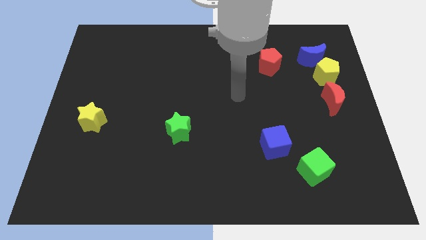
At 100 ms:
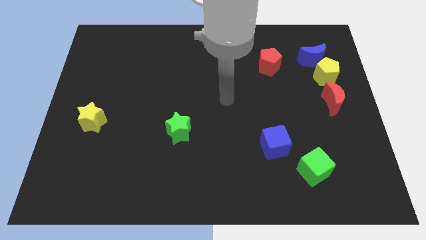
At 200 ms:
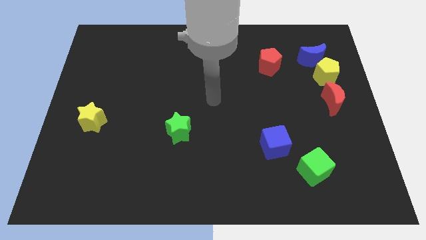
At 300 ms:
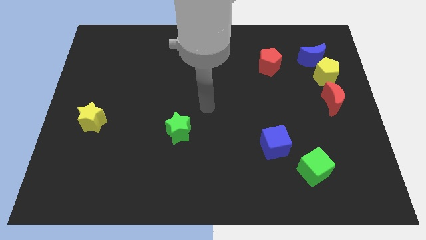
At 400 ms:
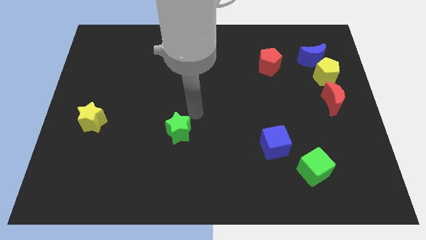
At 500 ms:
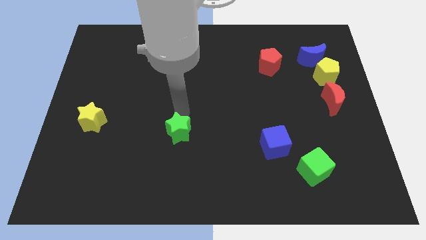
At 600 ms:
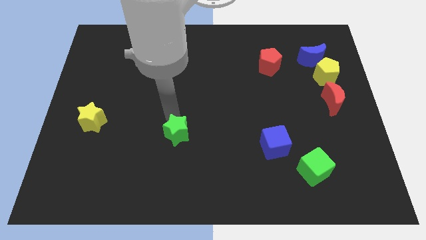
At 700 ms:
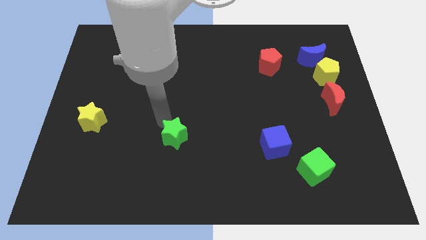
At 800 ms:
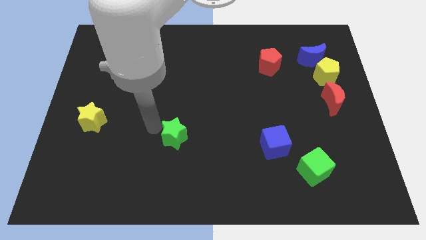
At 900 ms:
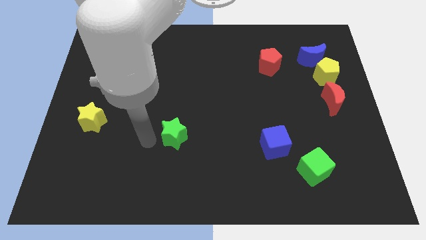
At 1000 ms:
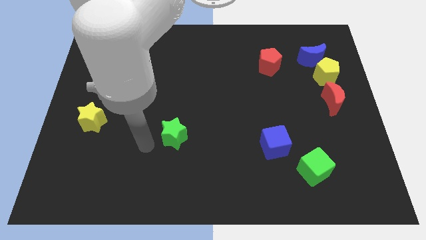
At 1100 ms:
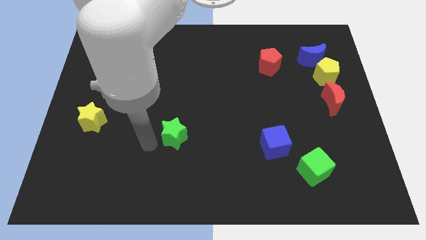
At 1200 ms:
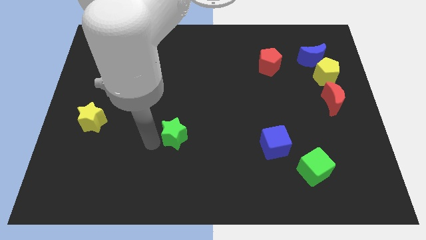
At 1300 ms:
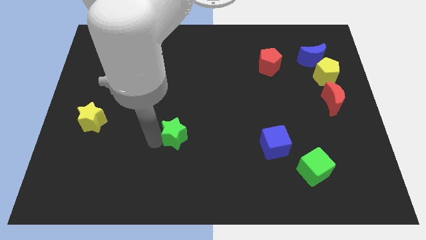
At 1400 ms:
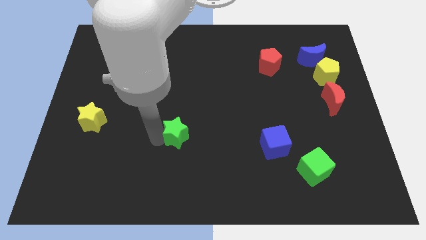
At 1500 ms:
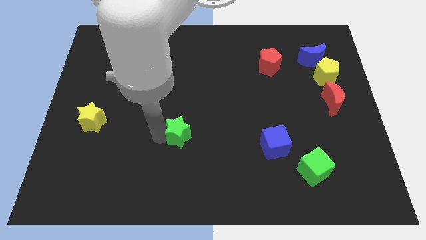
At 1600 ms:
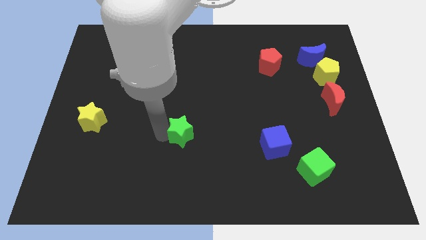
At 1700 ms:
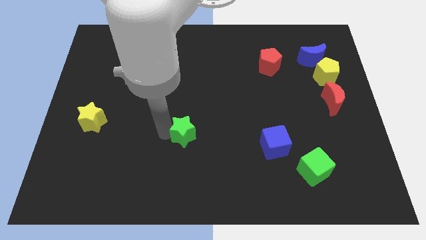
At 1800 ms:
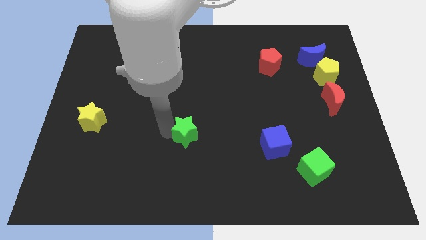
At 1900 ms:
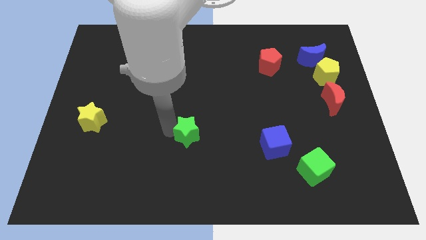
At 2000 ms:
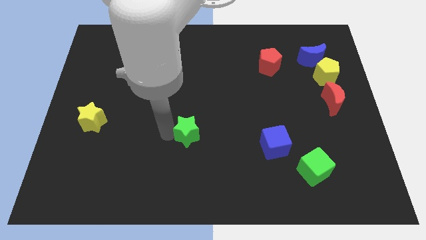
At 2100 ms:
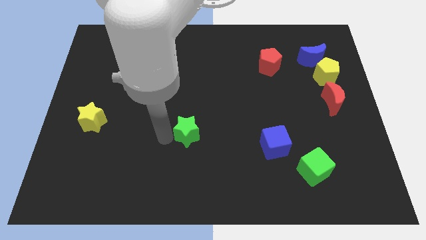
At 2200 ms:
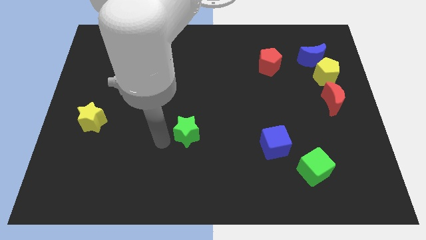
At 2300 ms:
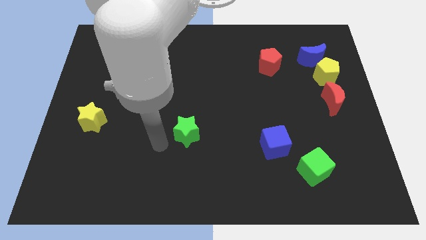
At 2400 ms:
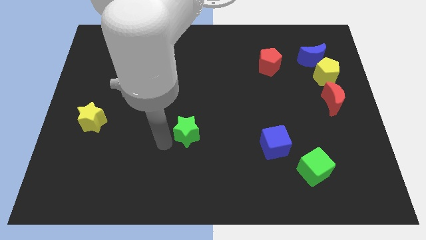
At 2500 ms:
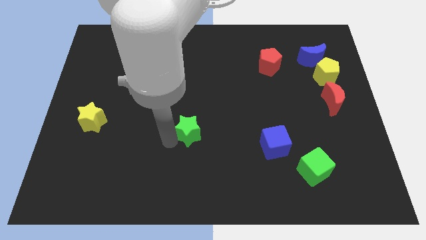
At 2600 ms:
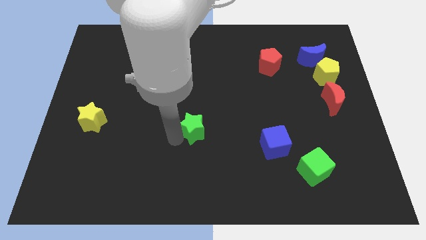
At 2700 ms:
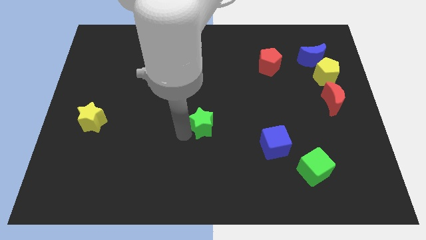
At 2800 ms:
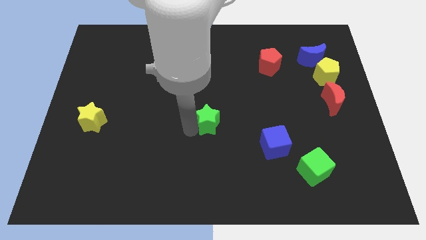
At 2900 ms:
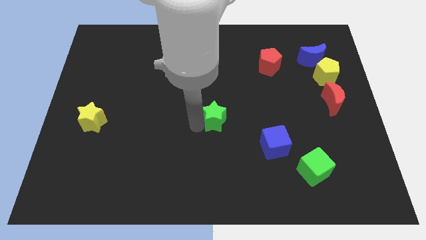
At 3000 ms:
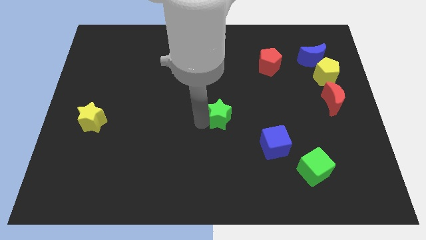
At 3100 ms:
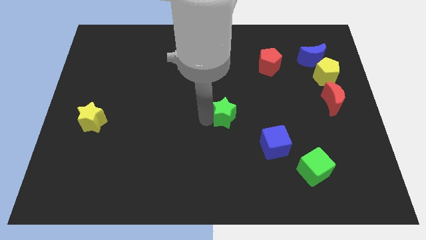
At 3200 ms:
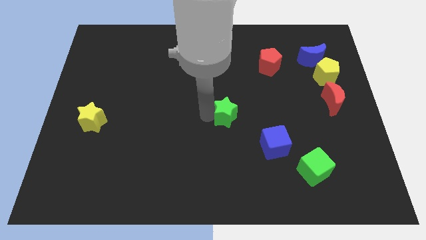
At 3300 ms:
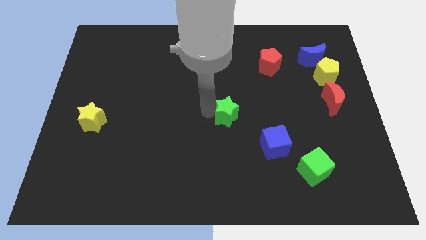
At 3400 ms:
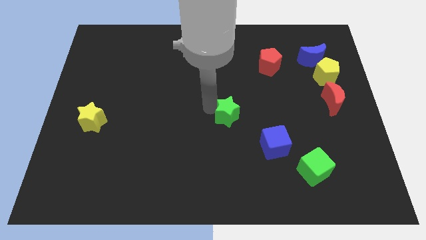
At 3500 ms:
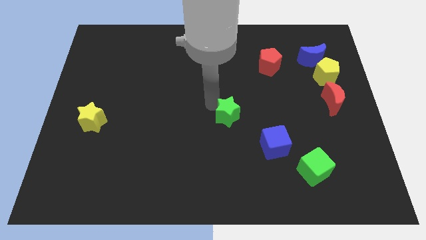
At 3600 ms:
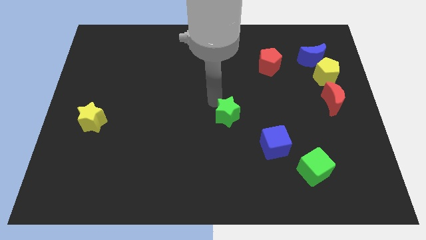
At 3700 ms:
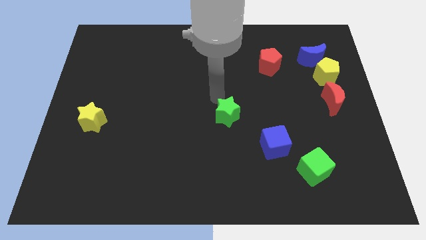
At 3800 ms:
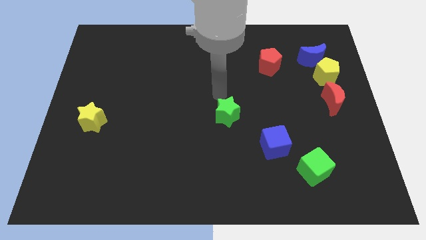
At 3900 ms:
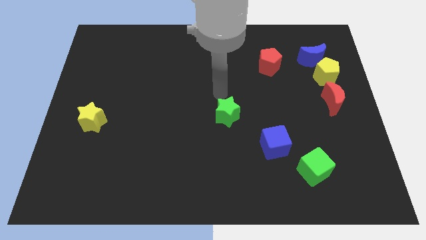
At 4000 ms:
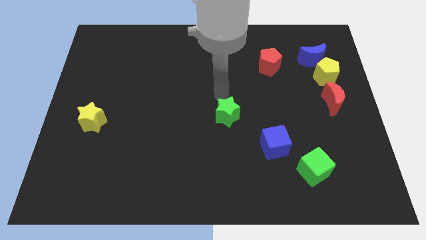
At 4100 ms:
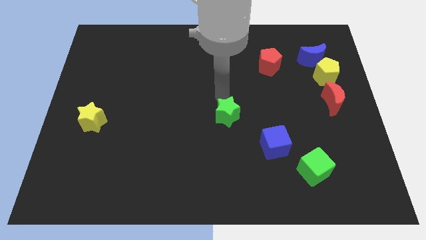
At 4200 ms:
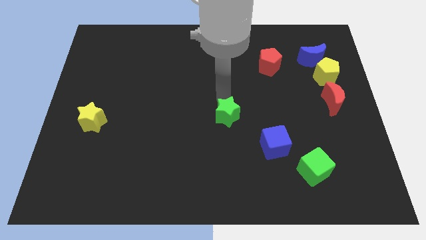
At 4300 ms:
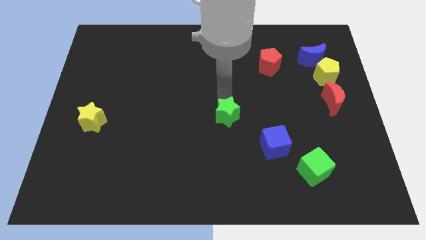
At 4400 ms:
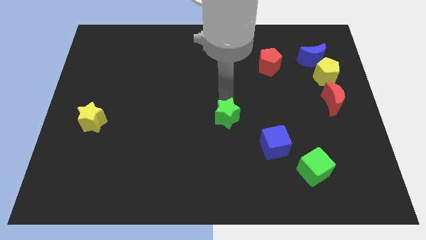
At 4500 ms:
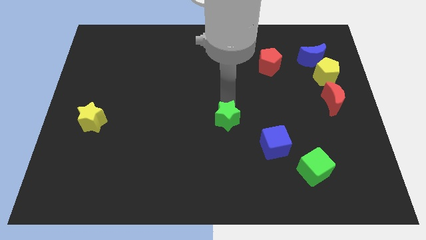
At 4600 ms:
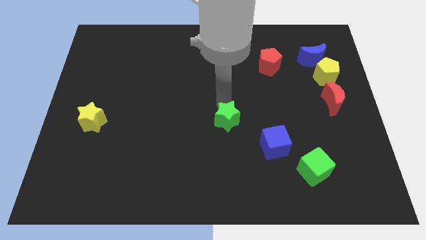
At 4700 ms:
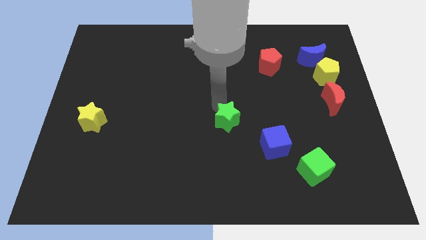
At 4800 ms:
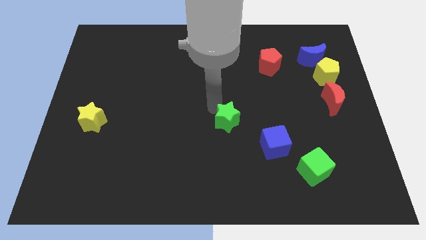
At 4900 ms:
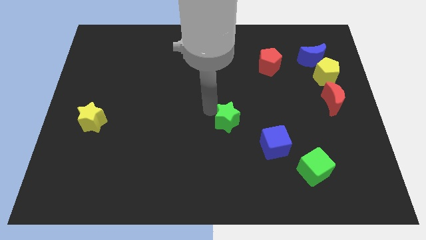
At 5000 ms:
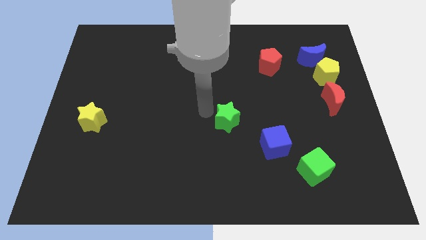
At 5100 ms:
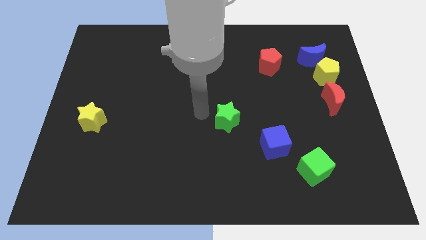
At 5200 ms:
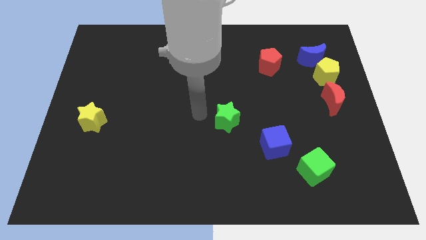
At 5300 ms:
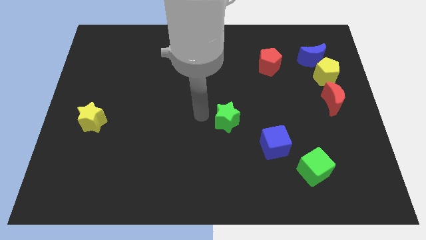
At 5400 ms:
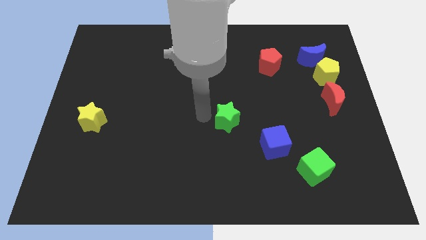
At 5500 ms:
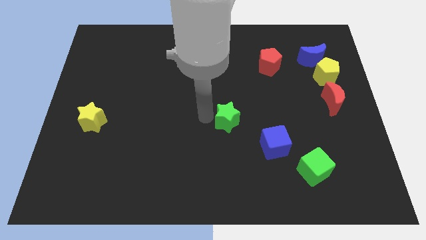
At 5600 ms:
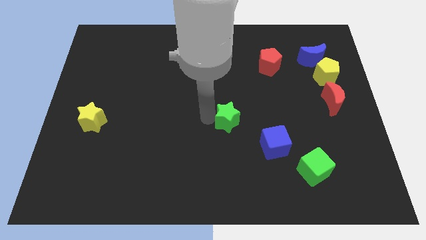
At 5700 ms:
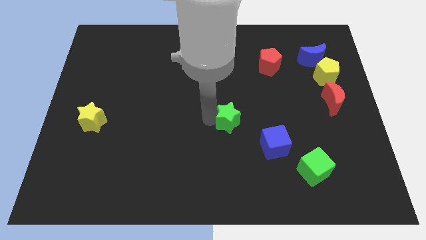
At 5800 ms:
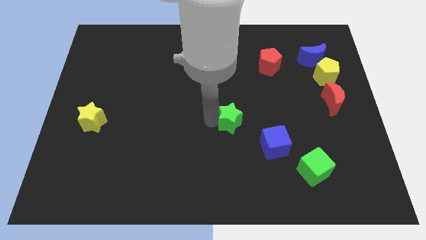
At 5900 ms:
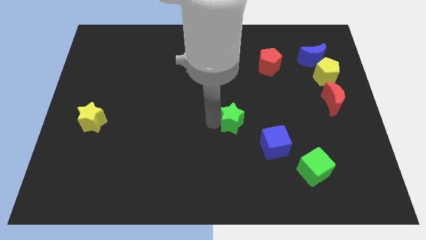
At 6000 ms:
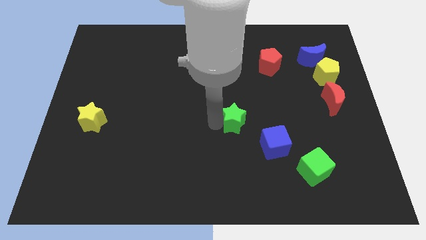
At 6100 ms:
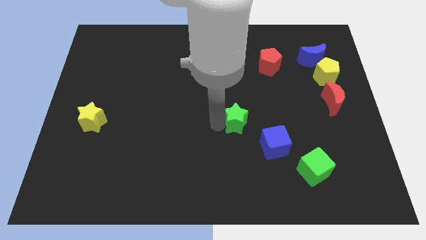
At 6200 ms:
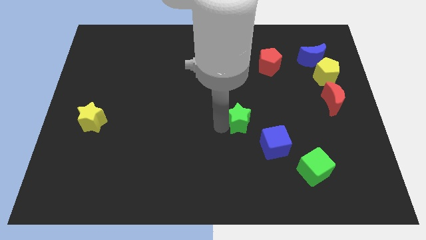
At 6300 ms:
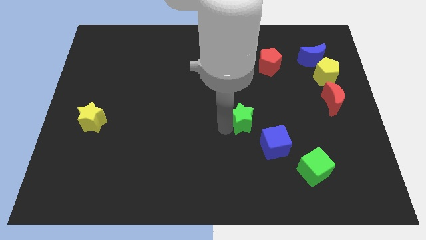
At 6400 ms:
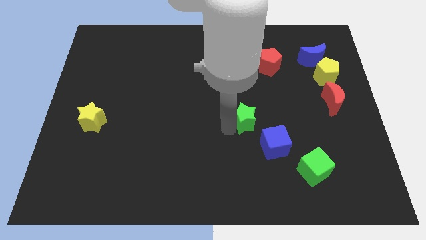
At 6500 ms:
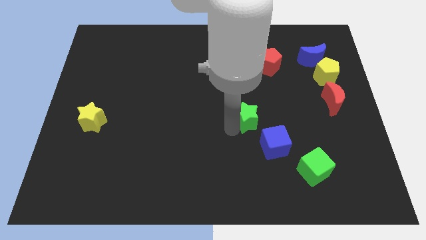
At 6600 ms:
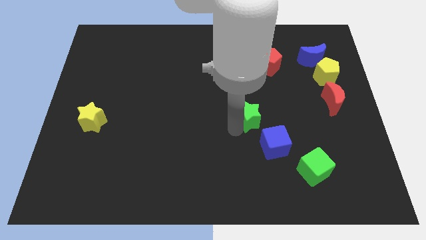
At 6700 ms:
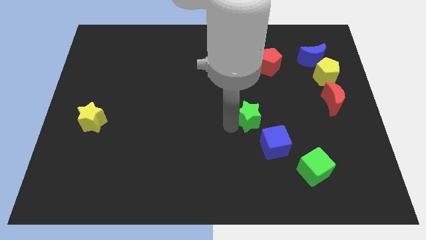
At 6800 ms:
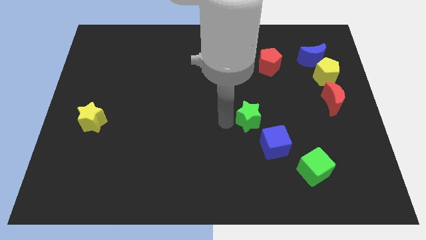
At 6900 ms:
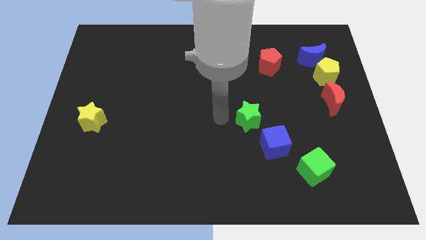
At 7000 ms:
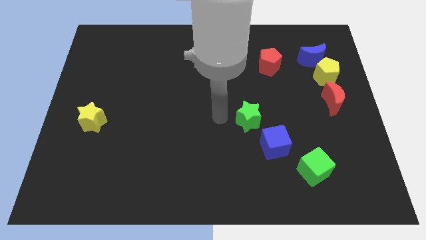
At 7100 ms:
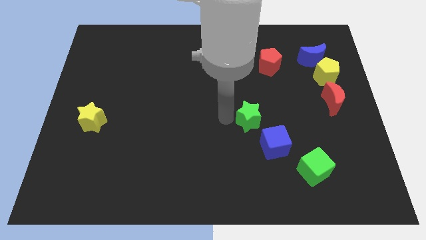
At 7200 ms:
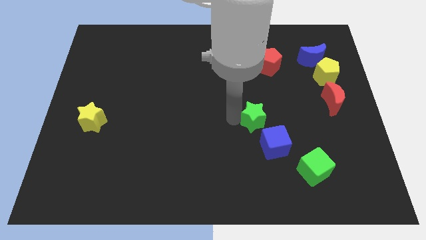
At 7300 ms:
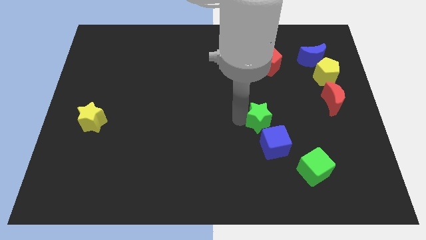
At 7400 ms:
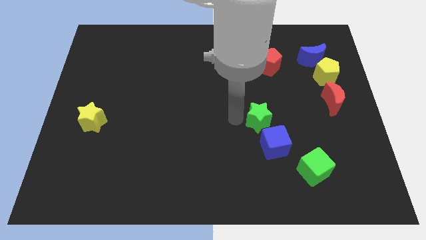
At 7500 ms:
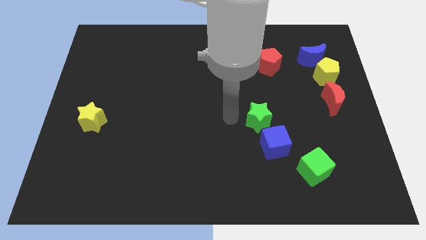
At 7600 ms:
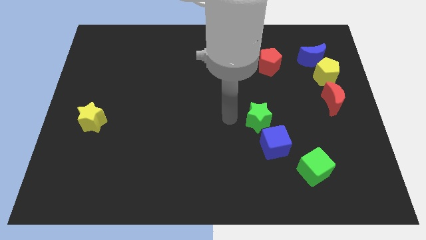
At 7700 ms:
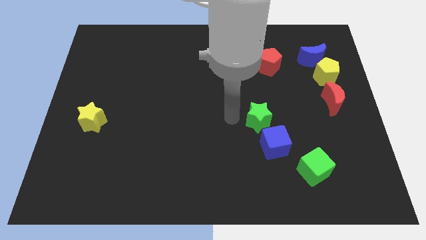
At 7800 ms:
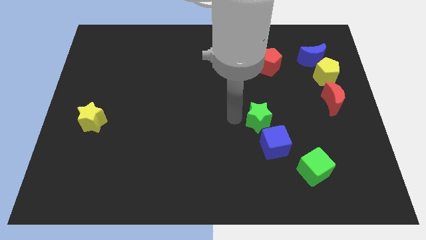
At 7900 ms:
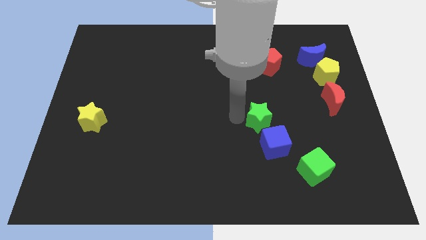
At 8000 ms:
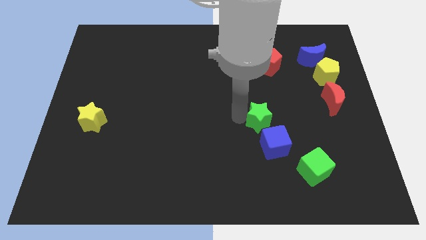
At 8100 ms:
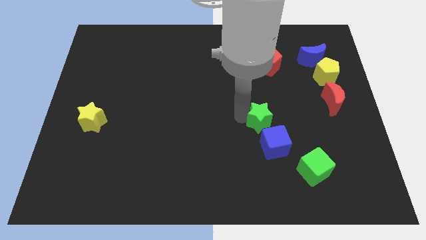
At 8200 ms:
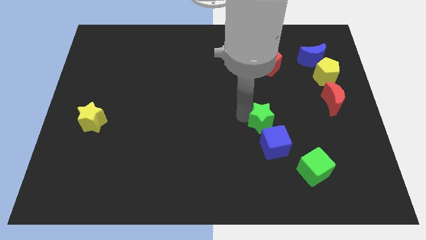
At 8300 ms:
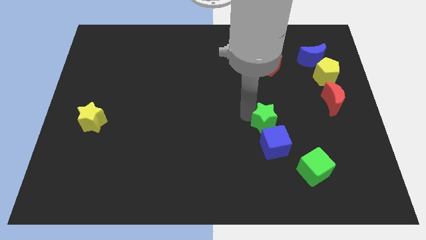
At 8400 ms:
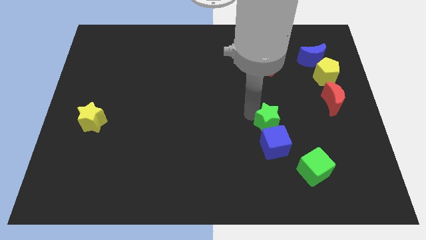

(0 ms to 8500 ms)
push the green star to the right
